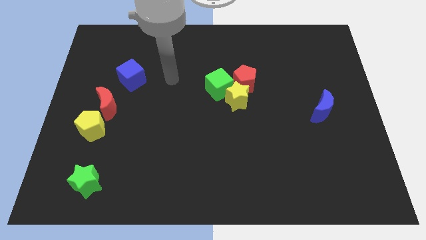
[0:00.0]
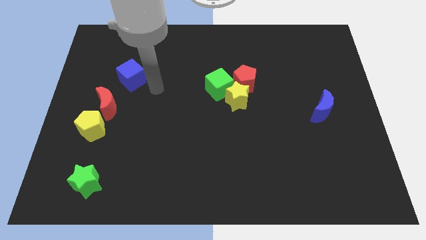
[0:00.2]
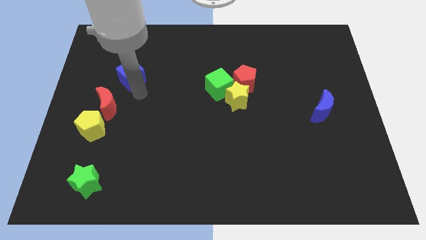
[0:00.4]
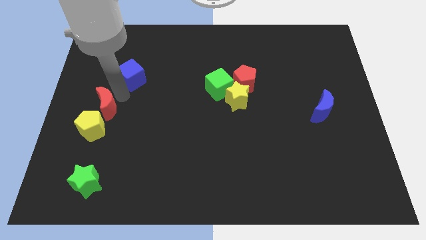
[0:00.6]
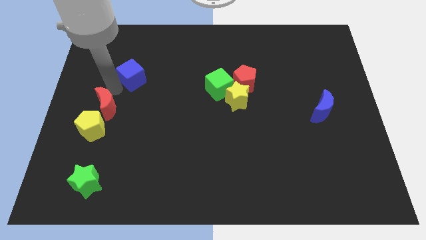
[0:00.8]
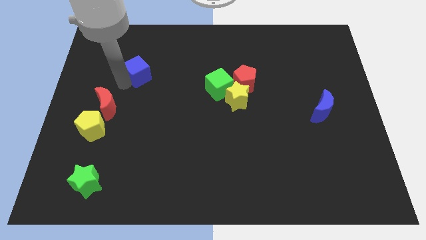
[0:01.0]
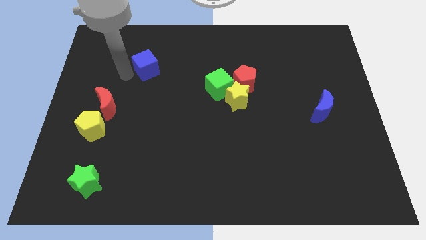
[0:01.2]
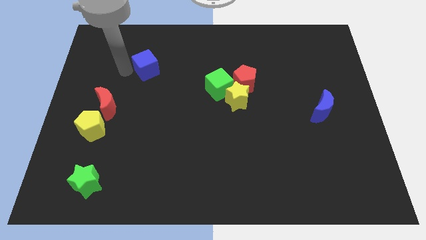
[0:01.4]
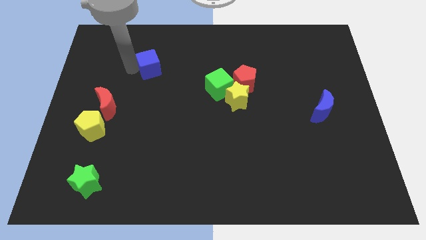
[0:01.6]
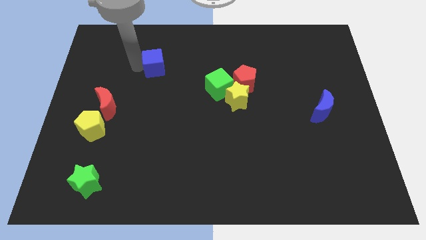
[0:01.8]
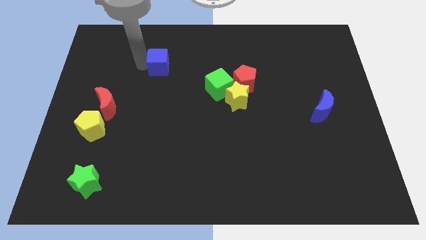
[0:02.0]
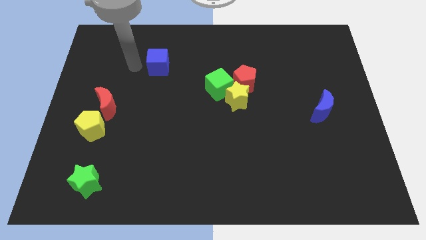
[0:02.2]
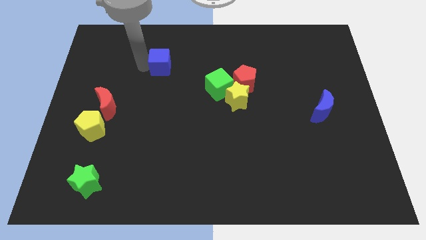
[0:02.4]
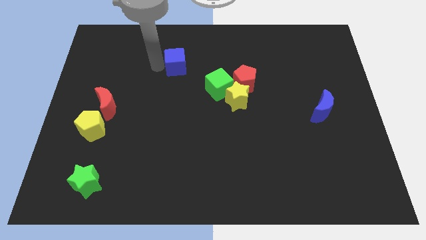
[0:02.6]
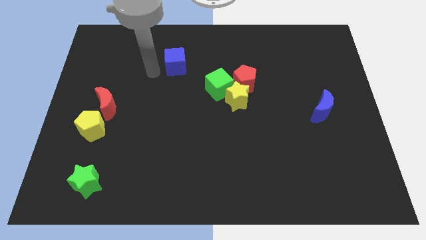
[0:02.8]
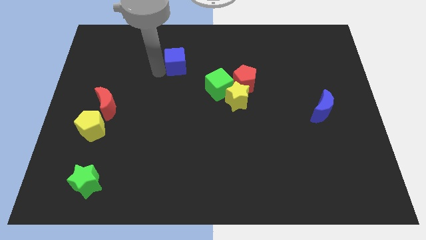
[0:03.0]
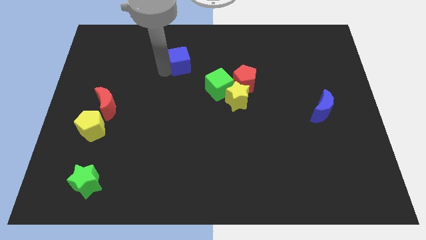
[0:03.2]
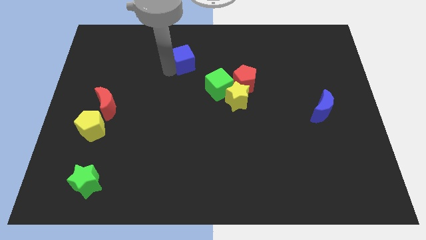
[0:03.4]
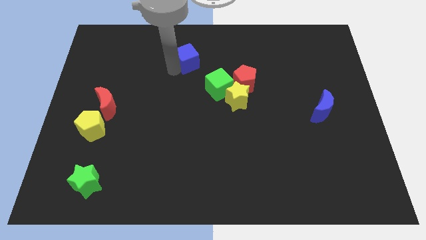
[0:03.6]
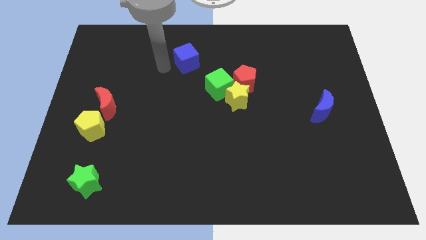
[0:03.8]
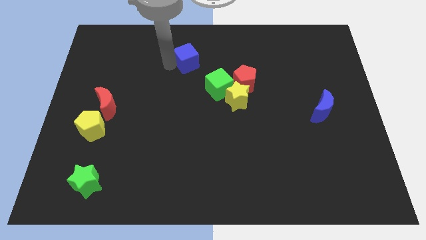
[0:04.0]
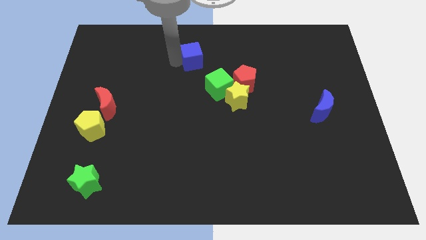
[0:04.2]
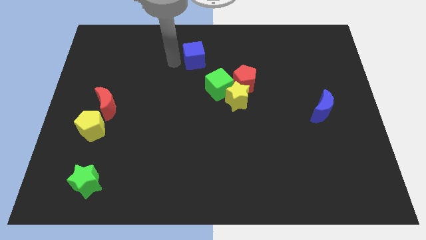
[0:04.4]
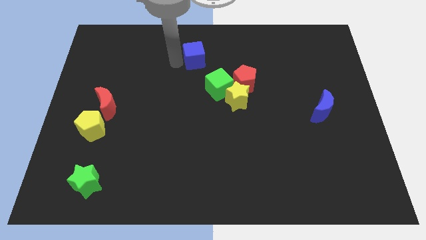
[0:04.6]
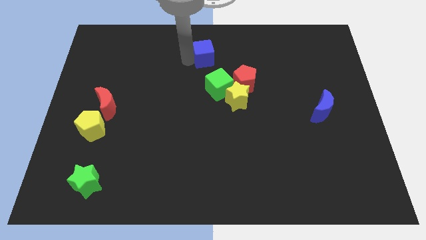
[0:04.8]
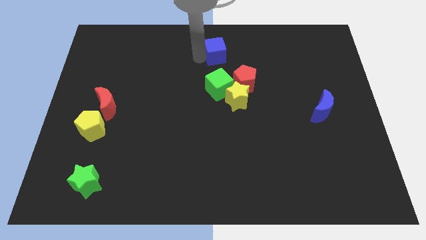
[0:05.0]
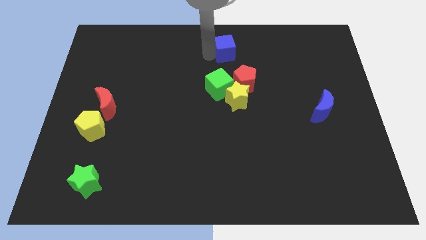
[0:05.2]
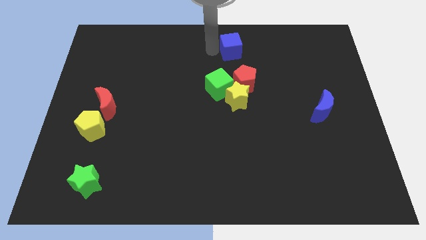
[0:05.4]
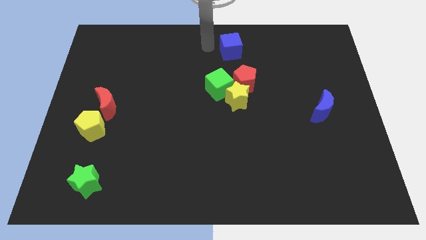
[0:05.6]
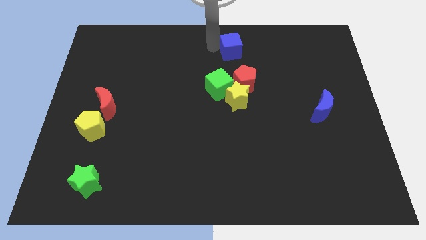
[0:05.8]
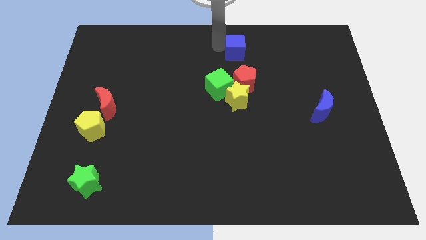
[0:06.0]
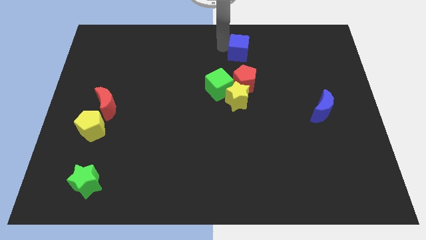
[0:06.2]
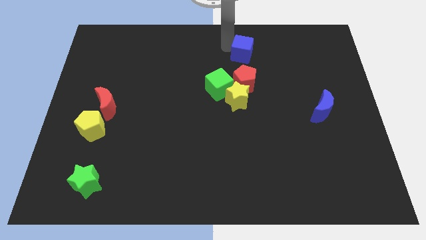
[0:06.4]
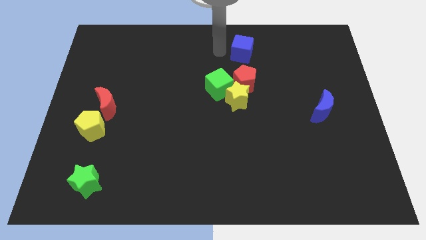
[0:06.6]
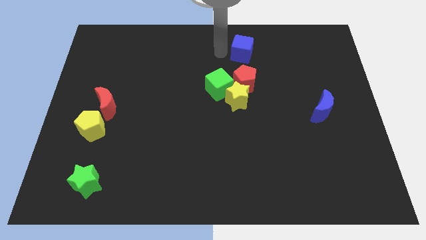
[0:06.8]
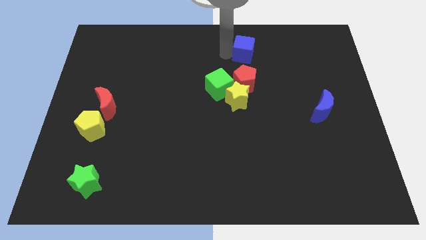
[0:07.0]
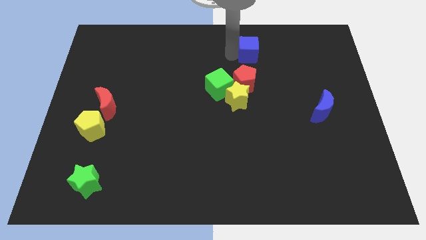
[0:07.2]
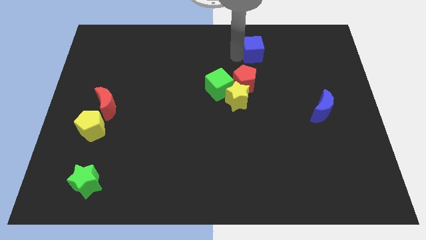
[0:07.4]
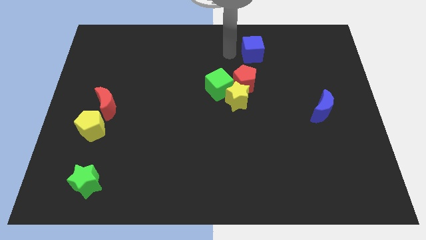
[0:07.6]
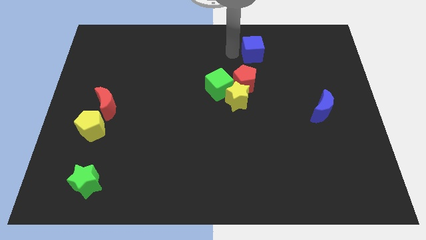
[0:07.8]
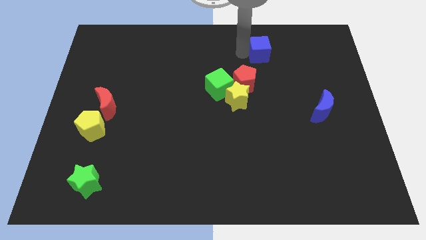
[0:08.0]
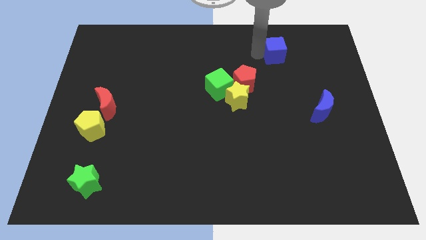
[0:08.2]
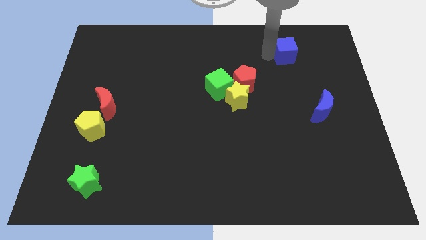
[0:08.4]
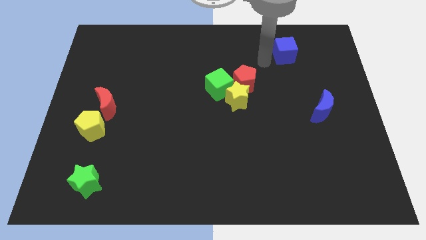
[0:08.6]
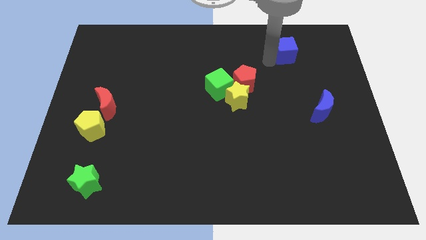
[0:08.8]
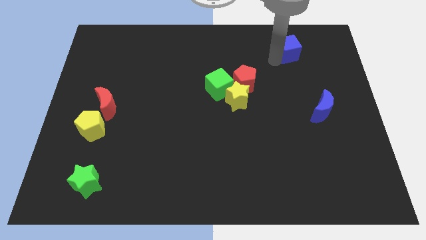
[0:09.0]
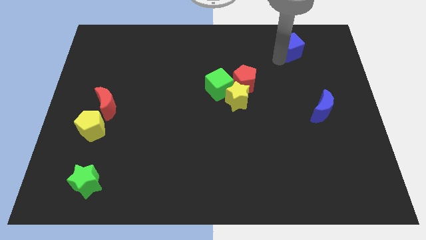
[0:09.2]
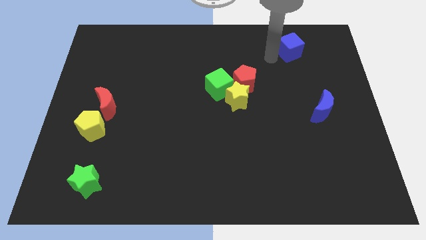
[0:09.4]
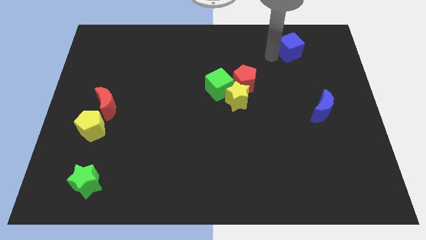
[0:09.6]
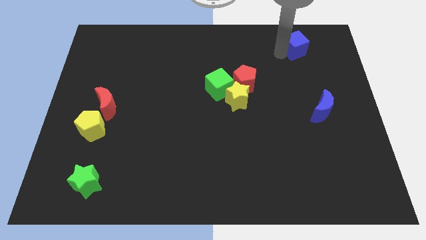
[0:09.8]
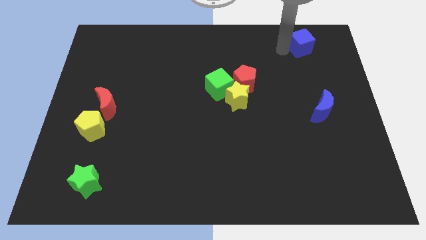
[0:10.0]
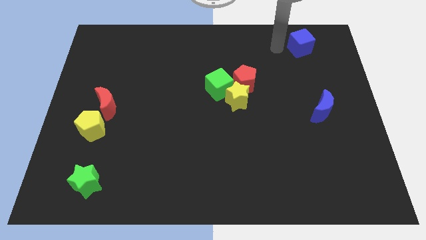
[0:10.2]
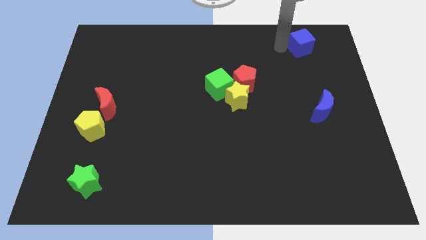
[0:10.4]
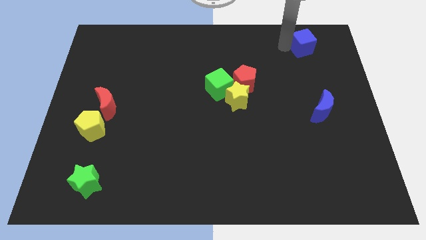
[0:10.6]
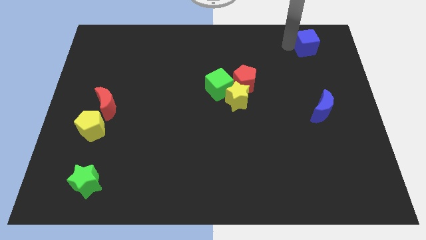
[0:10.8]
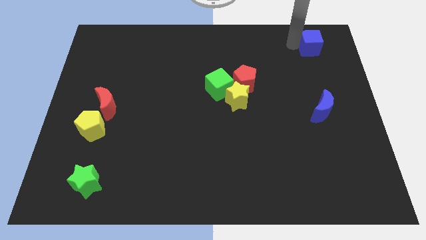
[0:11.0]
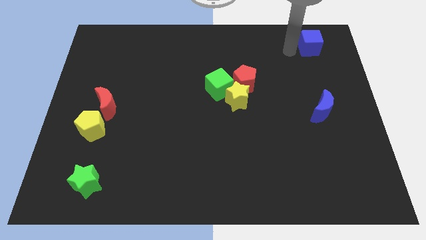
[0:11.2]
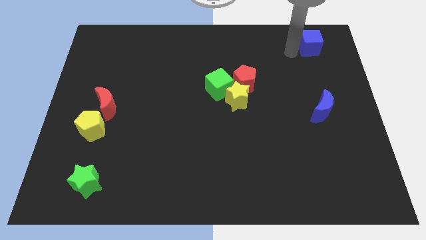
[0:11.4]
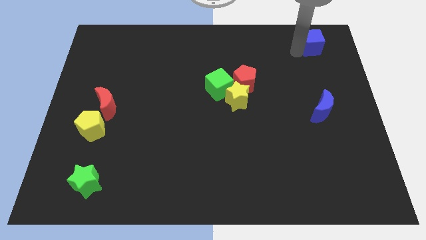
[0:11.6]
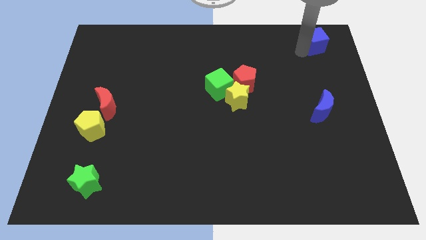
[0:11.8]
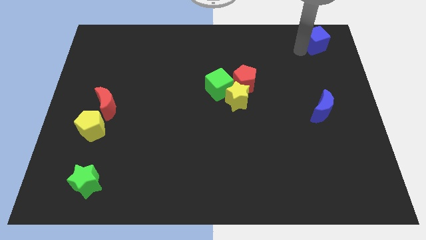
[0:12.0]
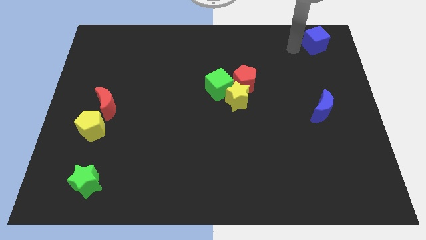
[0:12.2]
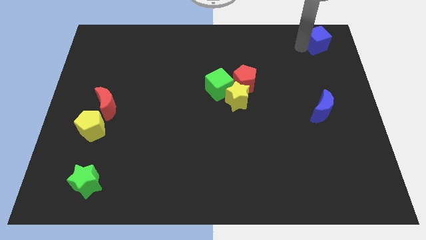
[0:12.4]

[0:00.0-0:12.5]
put the blue cube to the top right corner
